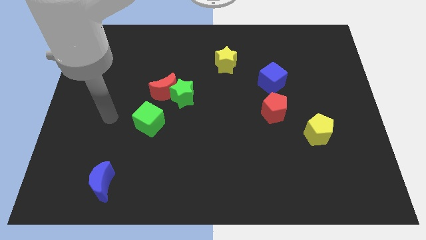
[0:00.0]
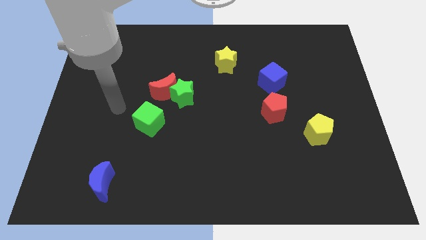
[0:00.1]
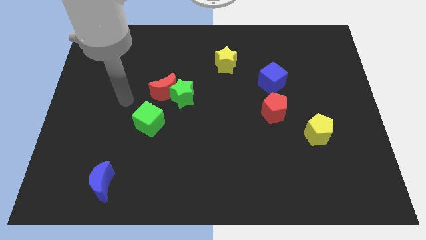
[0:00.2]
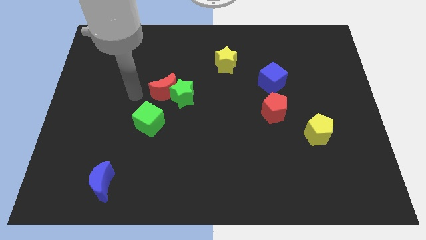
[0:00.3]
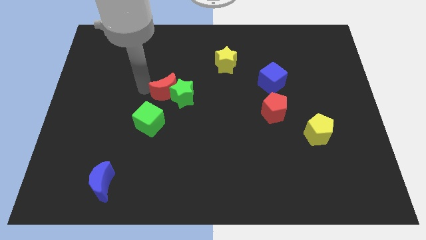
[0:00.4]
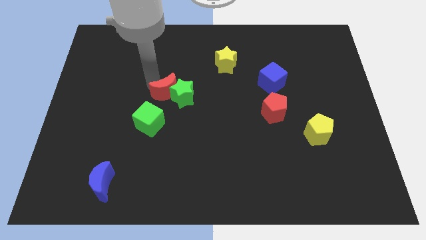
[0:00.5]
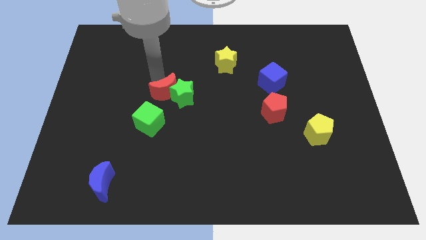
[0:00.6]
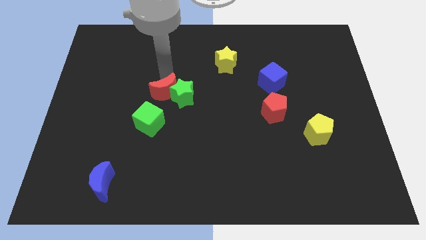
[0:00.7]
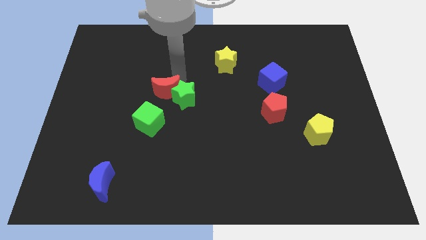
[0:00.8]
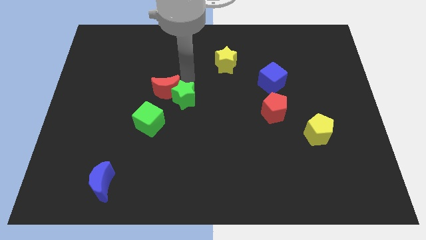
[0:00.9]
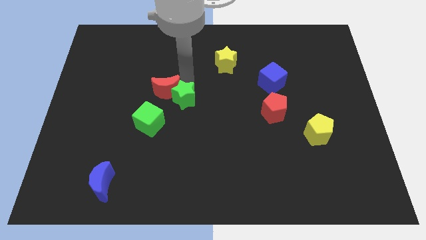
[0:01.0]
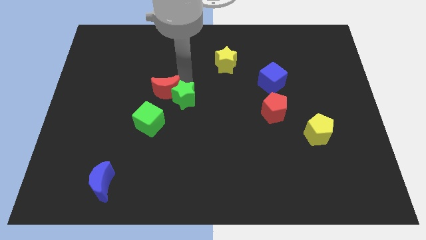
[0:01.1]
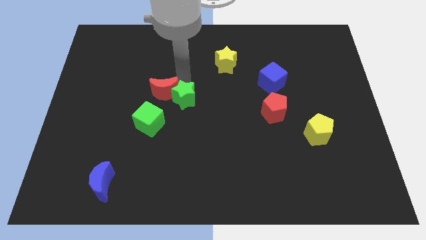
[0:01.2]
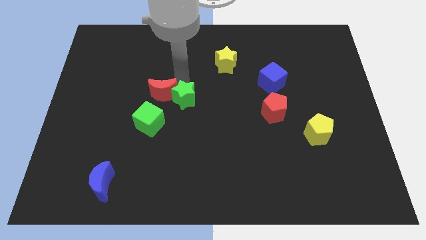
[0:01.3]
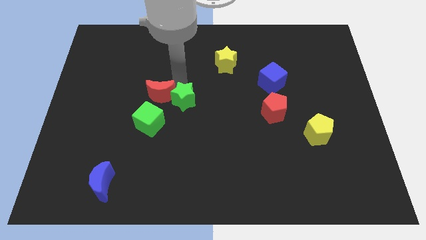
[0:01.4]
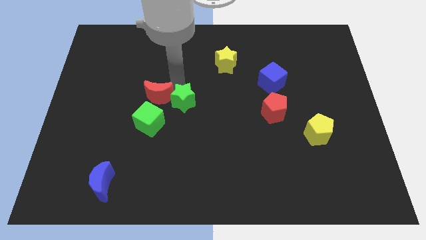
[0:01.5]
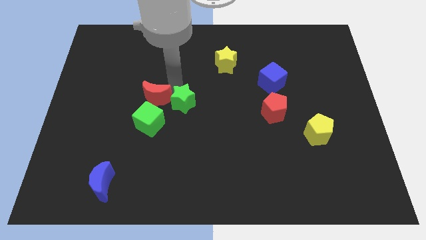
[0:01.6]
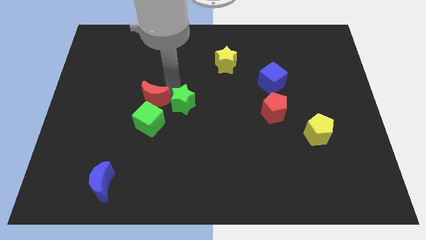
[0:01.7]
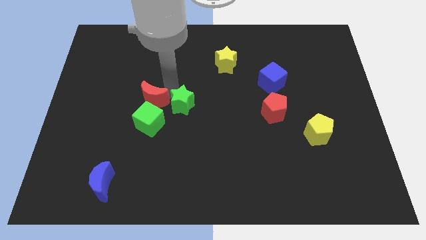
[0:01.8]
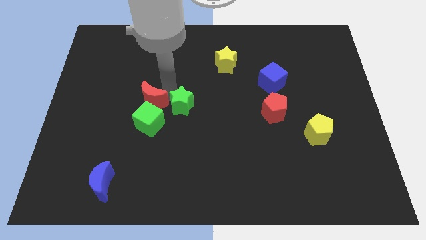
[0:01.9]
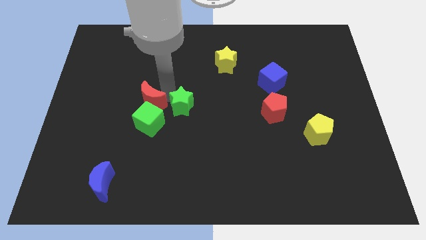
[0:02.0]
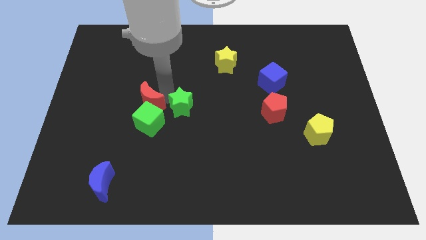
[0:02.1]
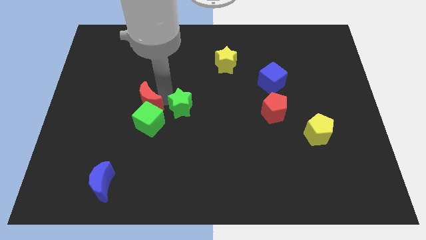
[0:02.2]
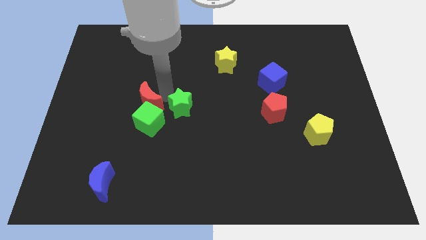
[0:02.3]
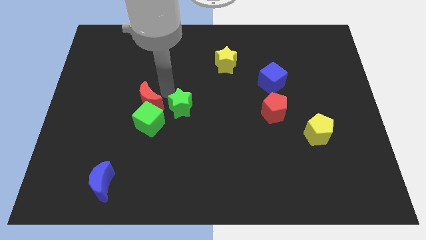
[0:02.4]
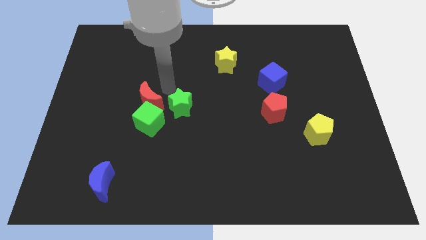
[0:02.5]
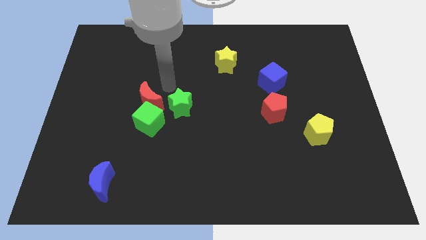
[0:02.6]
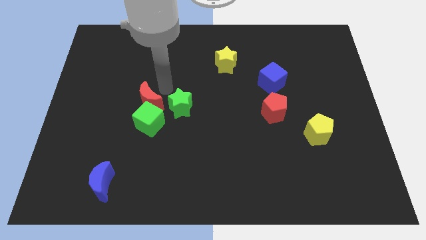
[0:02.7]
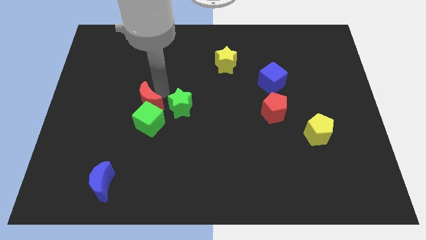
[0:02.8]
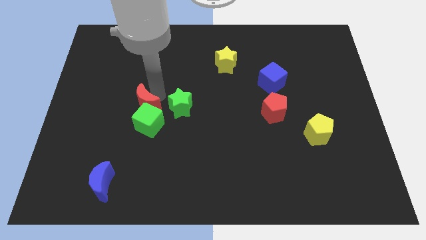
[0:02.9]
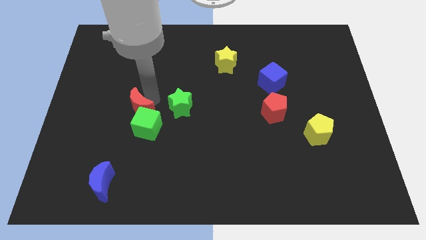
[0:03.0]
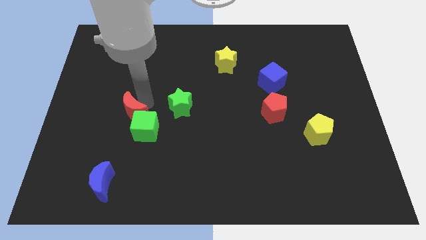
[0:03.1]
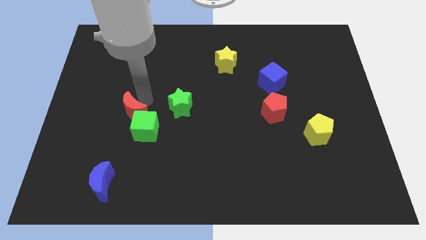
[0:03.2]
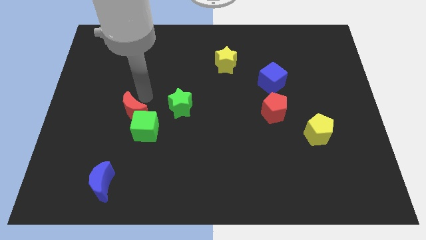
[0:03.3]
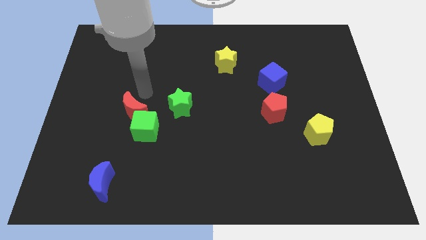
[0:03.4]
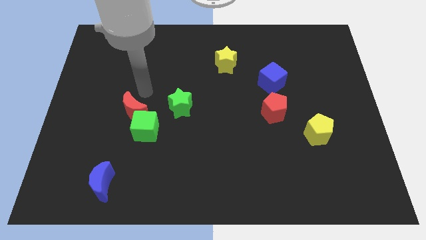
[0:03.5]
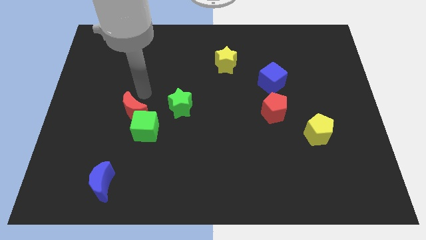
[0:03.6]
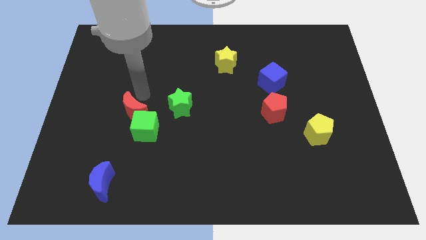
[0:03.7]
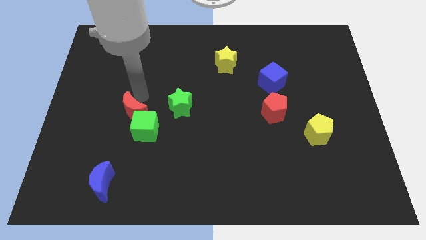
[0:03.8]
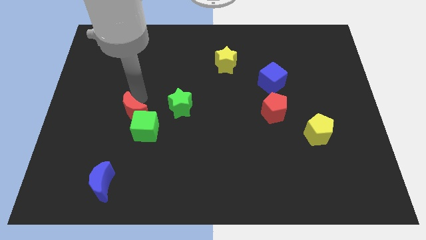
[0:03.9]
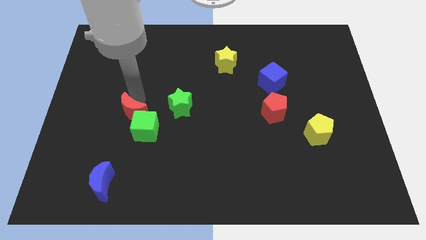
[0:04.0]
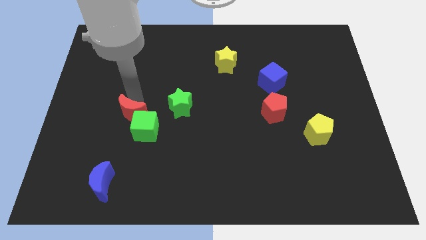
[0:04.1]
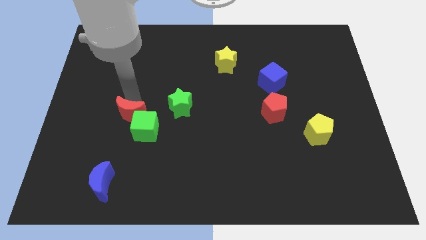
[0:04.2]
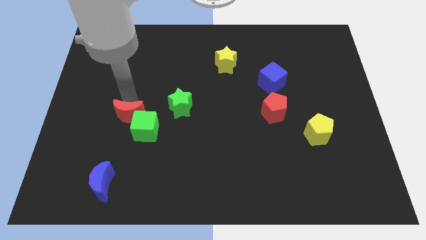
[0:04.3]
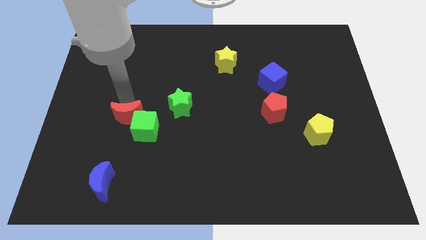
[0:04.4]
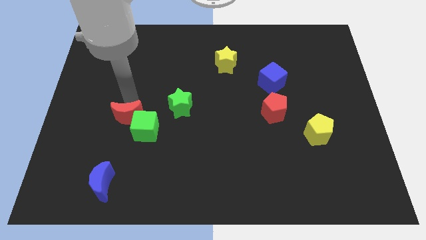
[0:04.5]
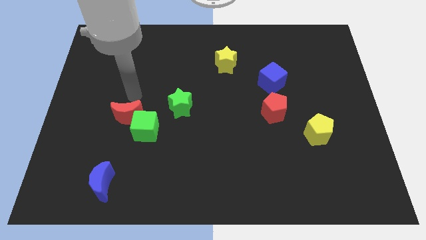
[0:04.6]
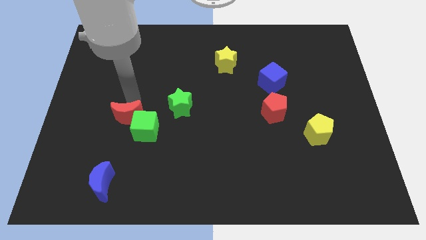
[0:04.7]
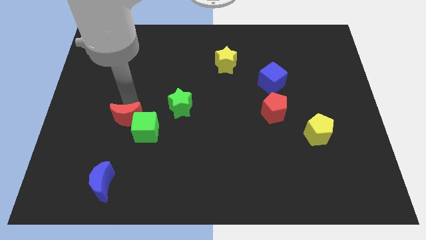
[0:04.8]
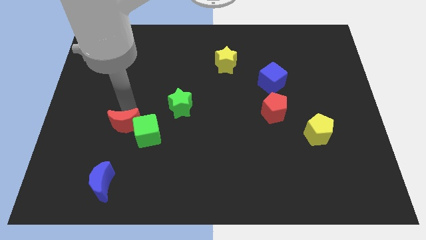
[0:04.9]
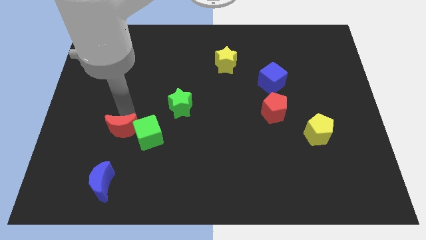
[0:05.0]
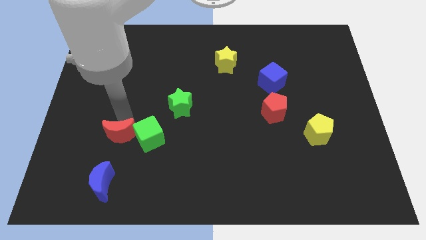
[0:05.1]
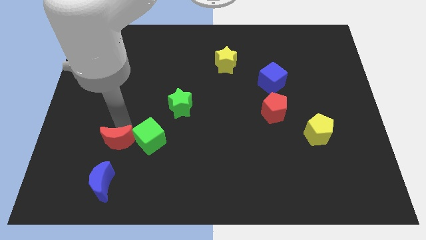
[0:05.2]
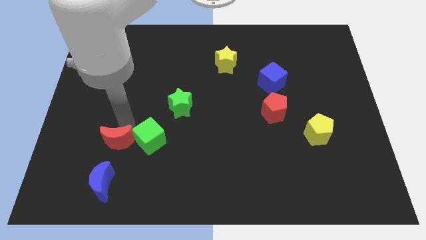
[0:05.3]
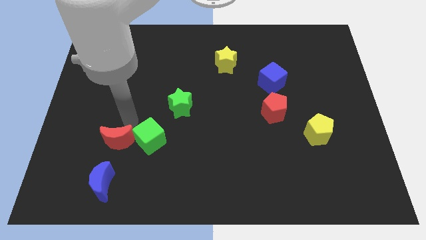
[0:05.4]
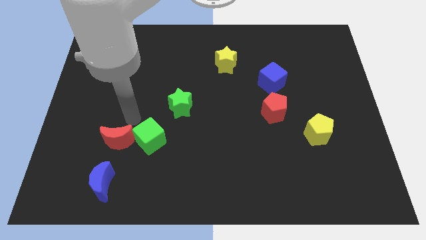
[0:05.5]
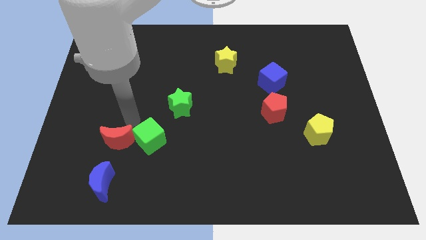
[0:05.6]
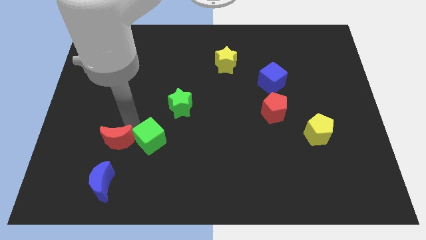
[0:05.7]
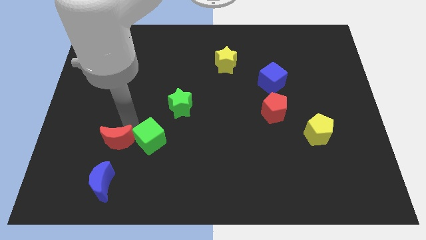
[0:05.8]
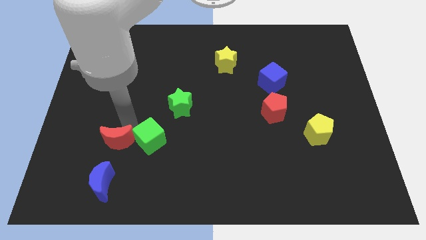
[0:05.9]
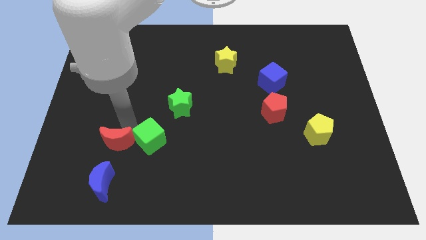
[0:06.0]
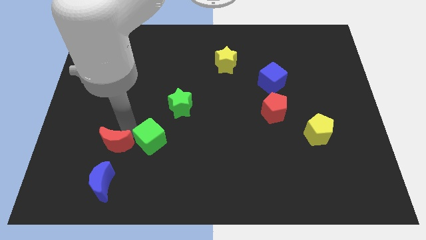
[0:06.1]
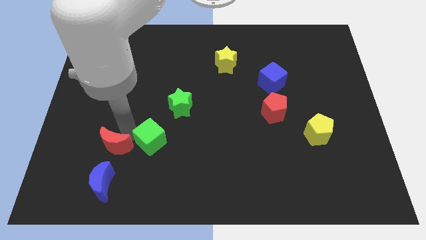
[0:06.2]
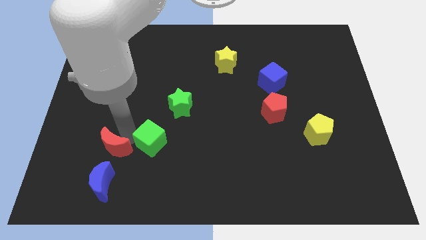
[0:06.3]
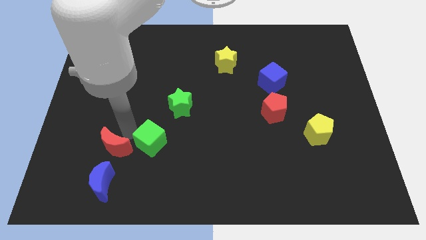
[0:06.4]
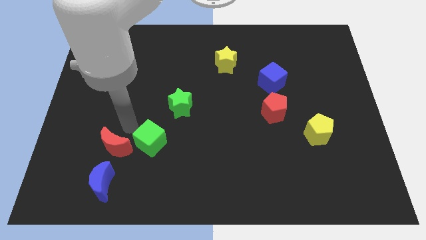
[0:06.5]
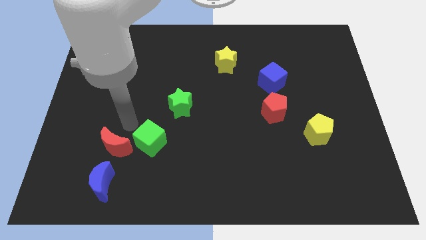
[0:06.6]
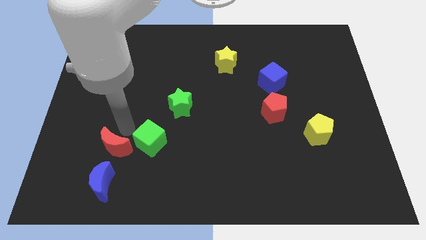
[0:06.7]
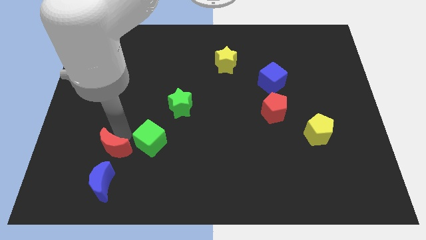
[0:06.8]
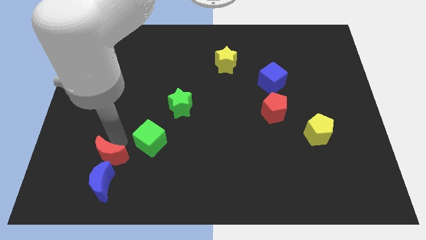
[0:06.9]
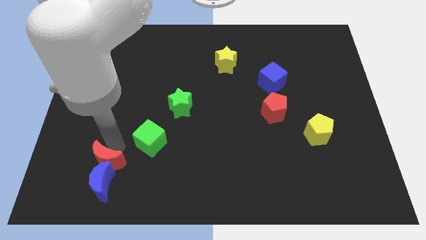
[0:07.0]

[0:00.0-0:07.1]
slide the red moon close to the blue moon
